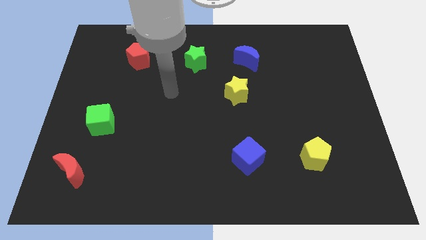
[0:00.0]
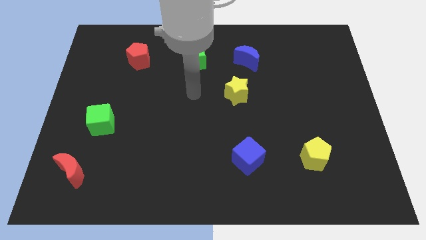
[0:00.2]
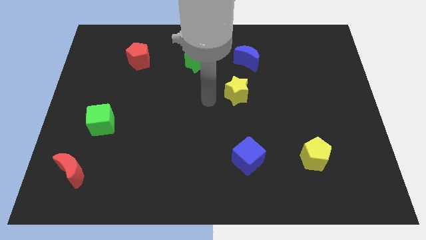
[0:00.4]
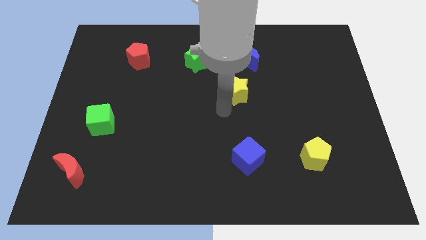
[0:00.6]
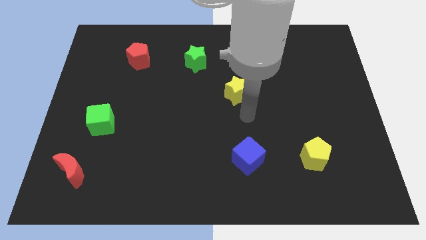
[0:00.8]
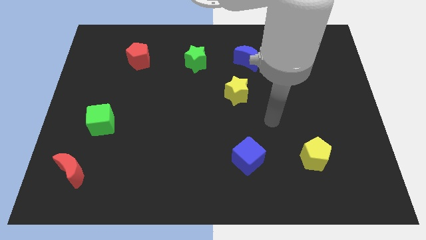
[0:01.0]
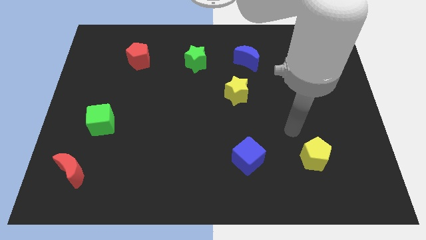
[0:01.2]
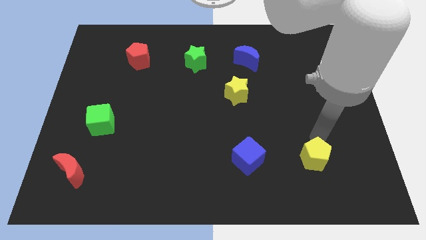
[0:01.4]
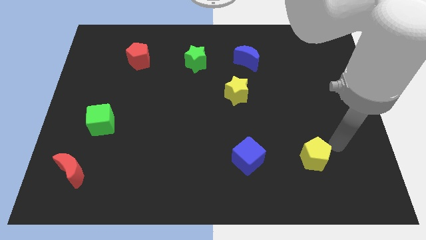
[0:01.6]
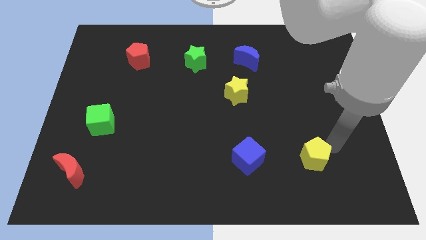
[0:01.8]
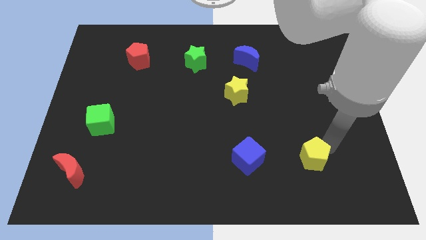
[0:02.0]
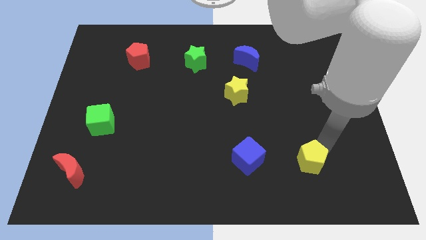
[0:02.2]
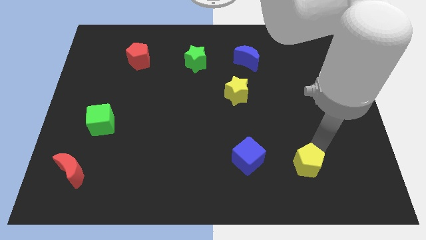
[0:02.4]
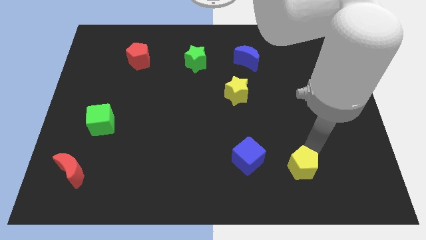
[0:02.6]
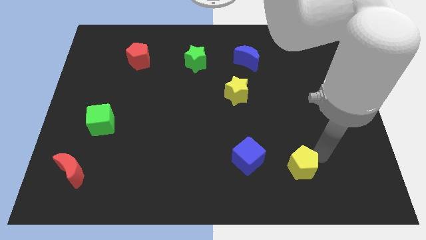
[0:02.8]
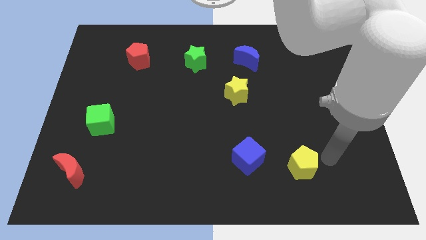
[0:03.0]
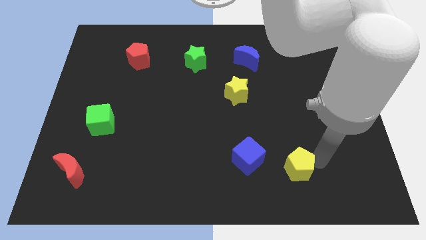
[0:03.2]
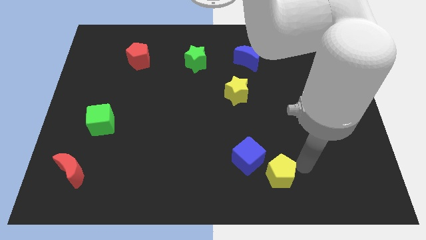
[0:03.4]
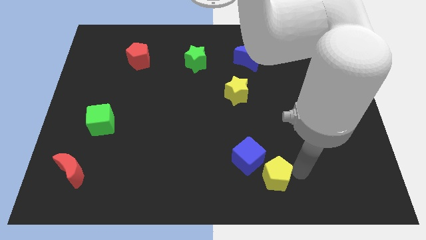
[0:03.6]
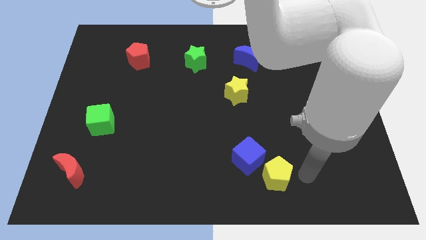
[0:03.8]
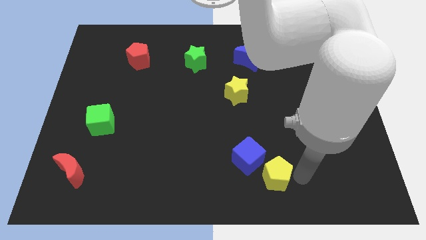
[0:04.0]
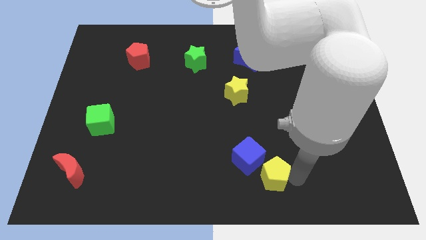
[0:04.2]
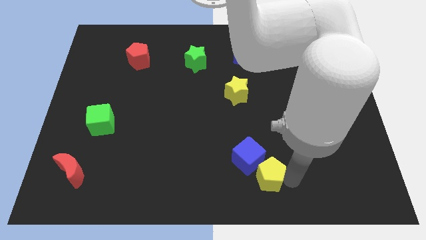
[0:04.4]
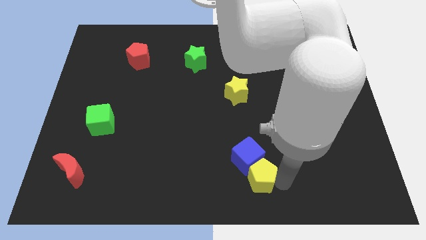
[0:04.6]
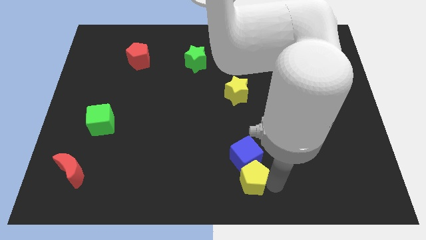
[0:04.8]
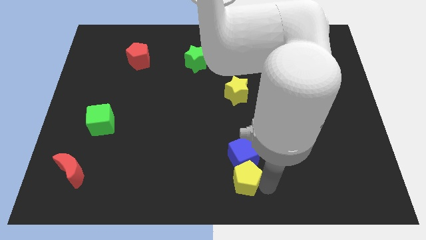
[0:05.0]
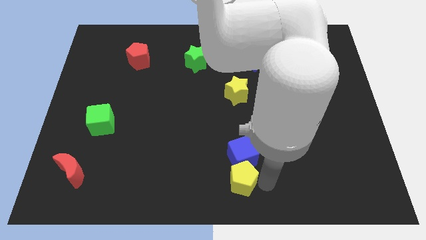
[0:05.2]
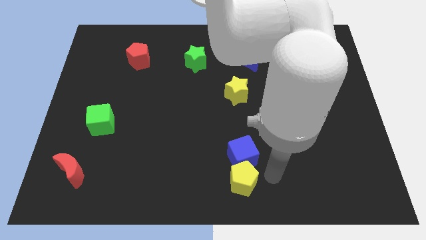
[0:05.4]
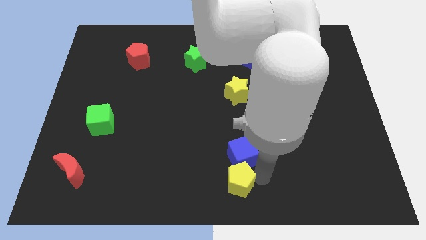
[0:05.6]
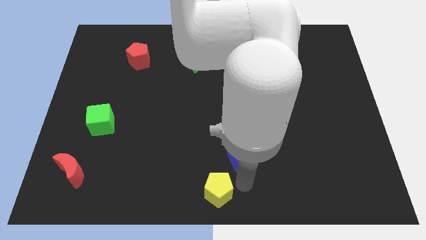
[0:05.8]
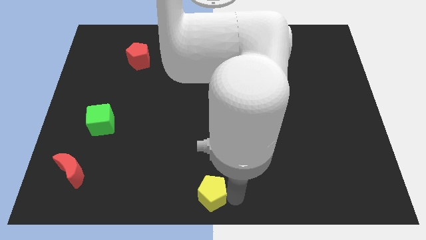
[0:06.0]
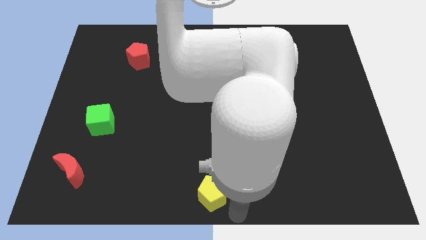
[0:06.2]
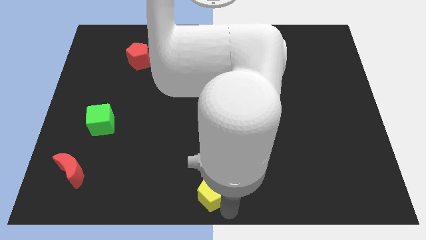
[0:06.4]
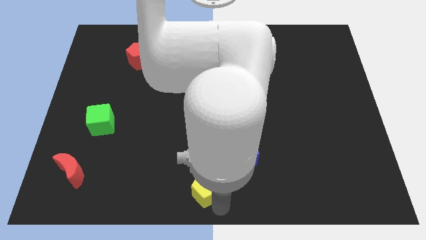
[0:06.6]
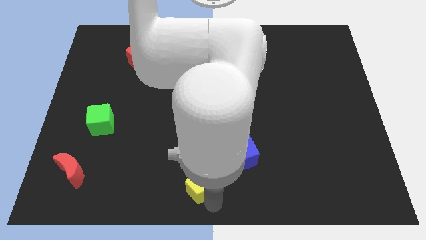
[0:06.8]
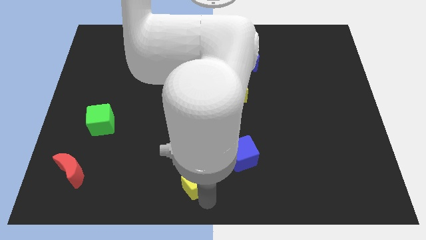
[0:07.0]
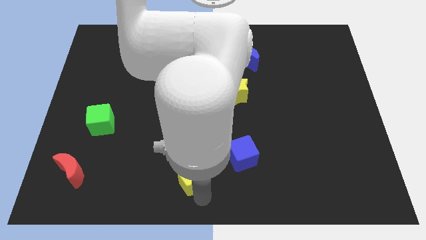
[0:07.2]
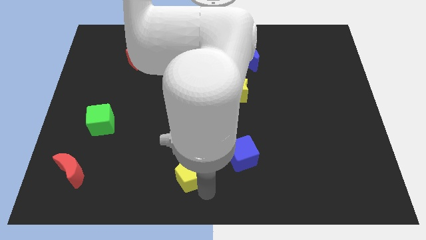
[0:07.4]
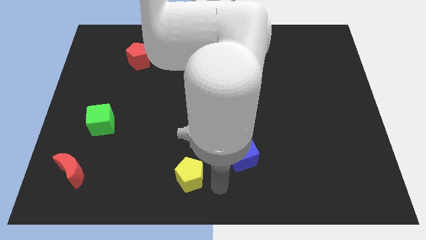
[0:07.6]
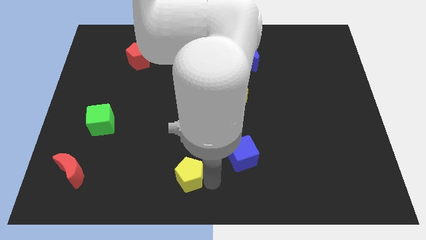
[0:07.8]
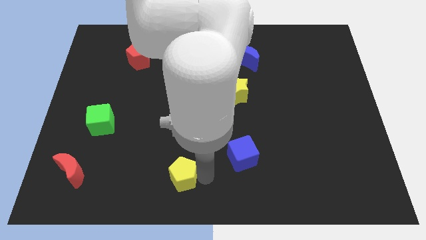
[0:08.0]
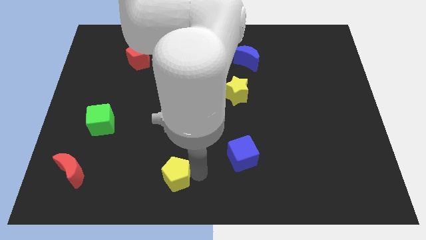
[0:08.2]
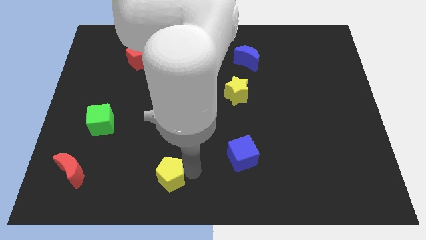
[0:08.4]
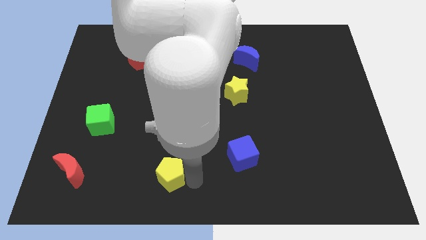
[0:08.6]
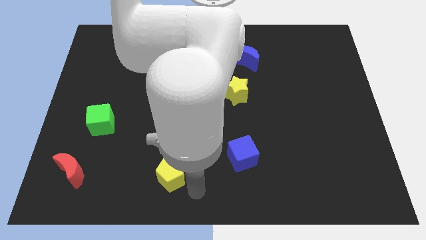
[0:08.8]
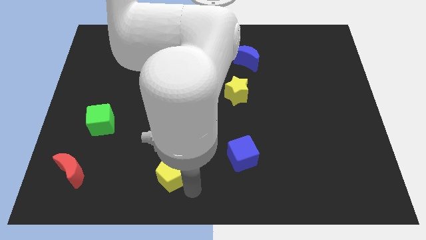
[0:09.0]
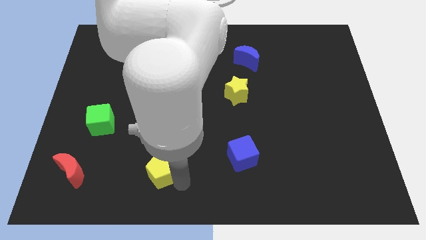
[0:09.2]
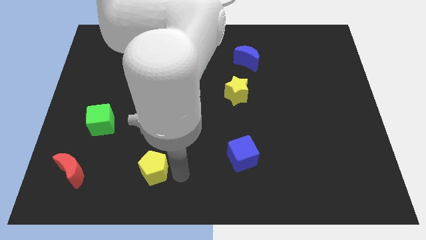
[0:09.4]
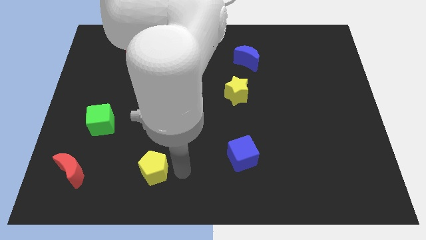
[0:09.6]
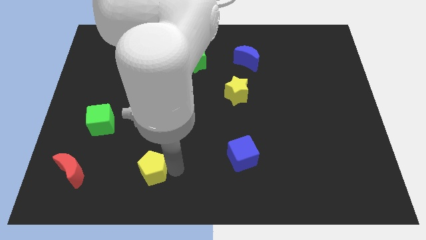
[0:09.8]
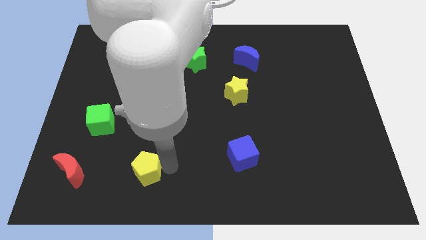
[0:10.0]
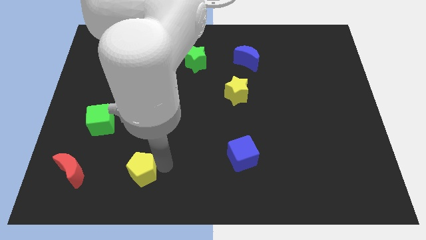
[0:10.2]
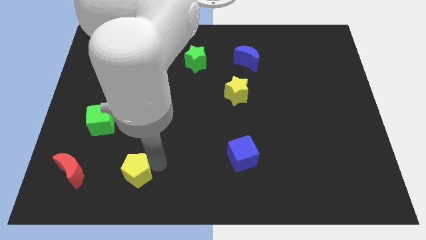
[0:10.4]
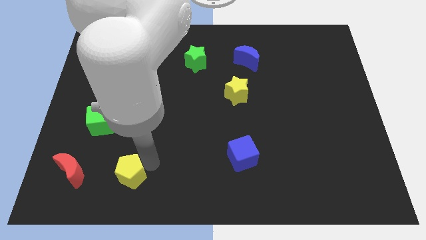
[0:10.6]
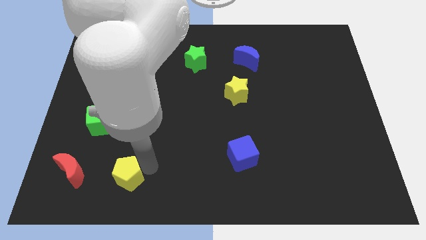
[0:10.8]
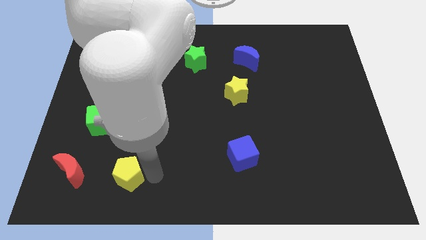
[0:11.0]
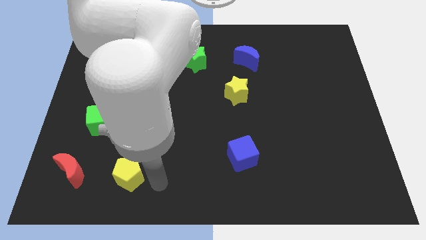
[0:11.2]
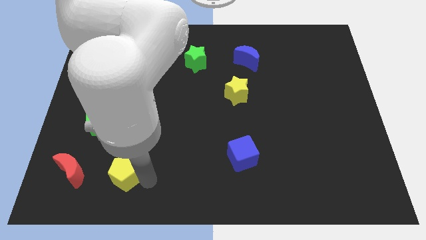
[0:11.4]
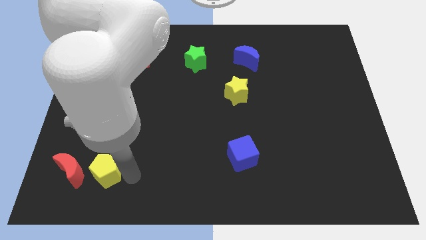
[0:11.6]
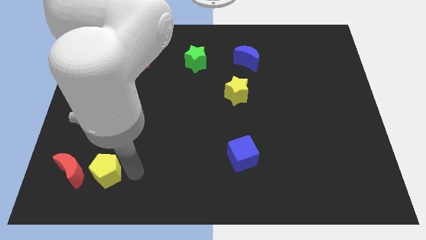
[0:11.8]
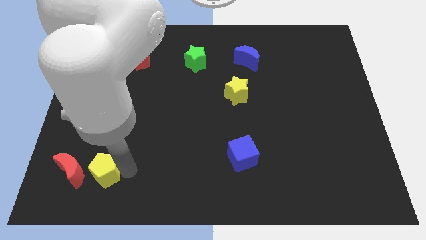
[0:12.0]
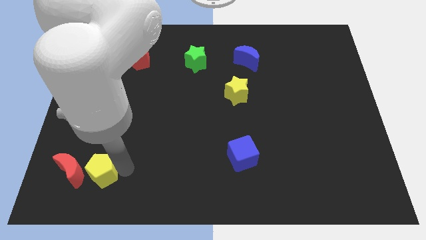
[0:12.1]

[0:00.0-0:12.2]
slide the yellow pentagon towards the red moon

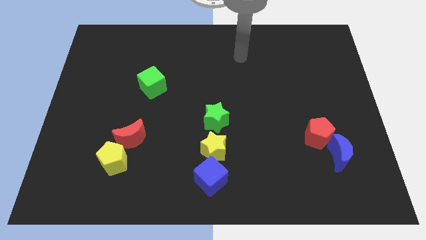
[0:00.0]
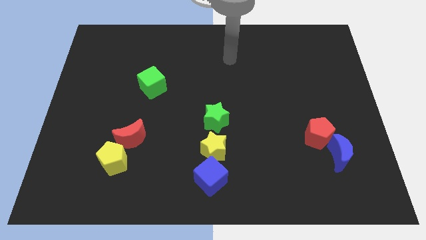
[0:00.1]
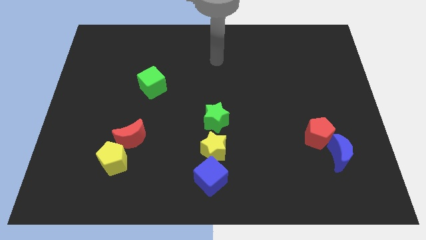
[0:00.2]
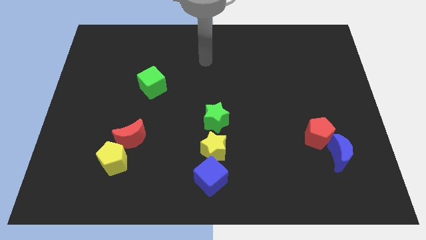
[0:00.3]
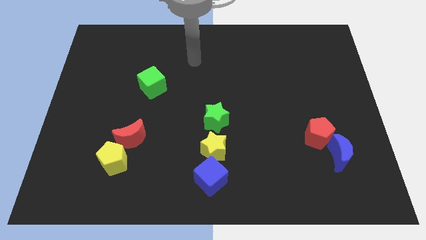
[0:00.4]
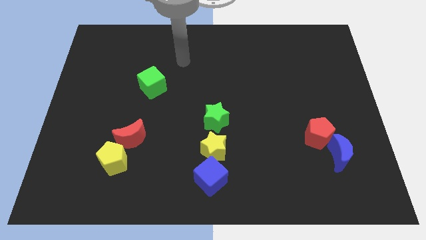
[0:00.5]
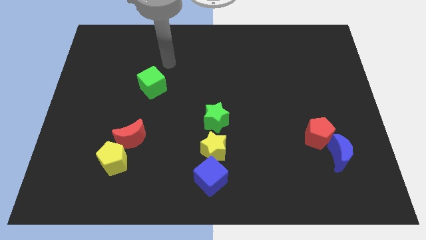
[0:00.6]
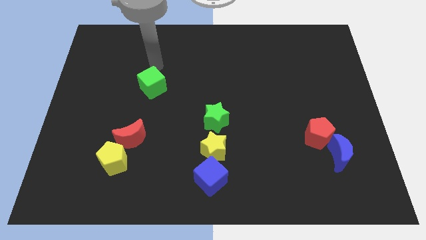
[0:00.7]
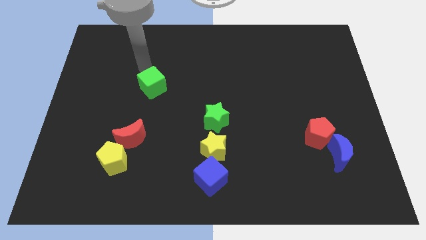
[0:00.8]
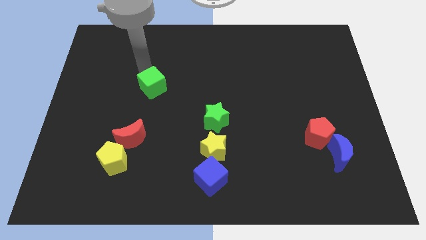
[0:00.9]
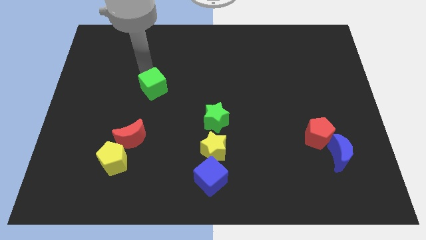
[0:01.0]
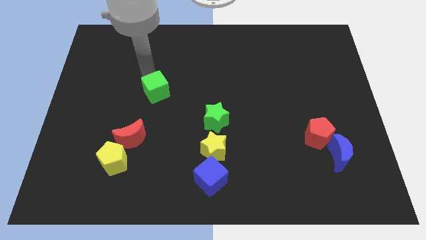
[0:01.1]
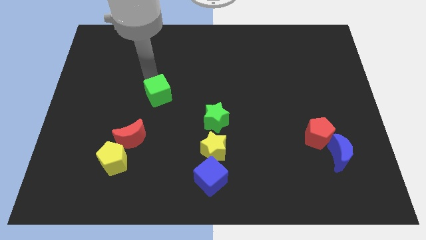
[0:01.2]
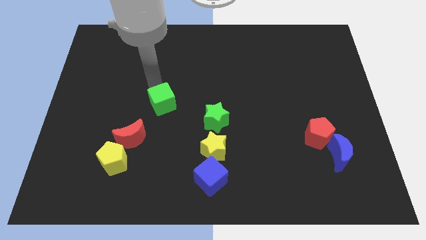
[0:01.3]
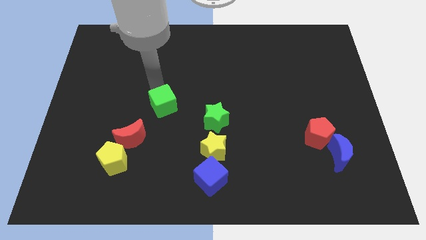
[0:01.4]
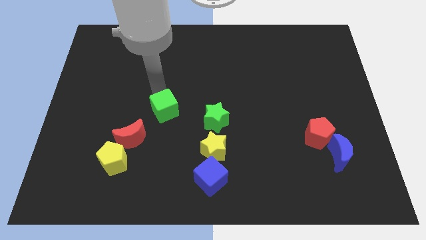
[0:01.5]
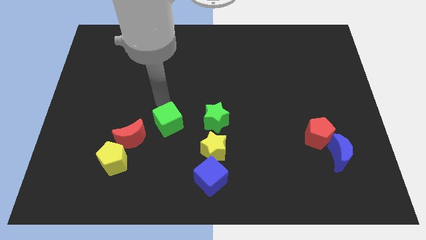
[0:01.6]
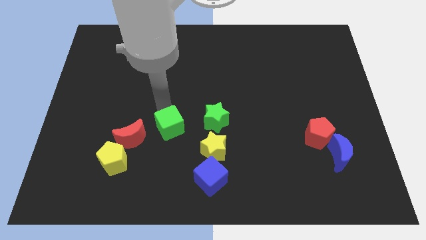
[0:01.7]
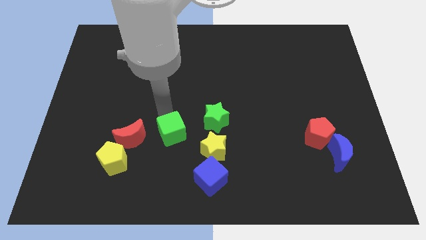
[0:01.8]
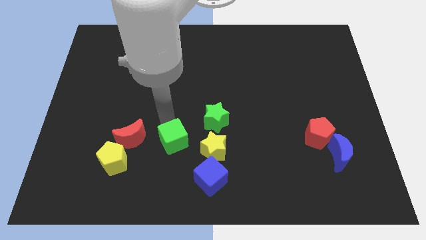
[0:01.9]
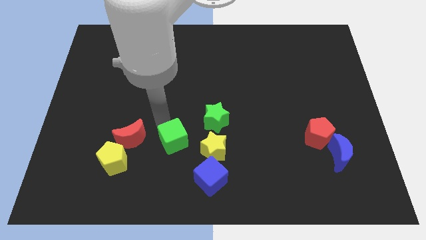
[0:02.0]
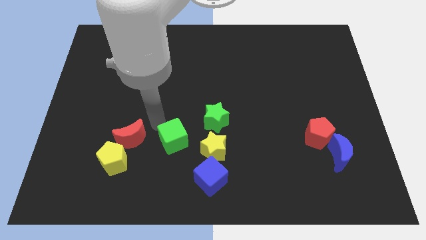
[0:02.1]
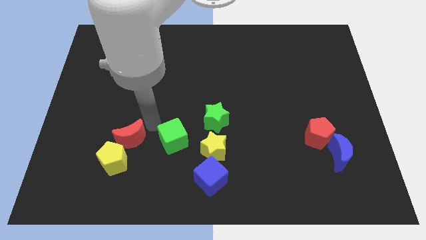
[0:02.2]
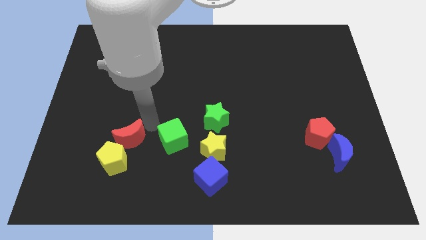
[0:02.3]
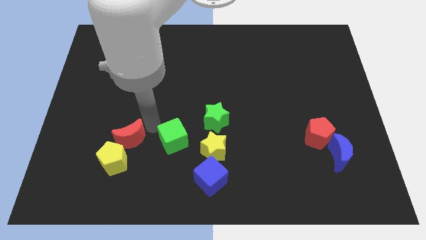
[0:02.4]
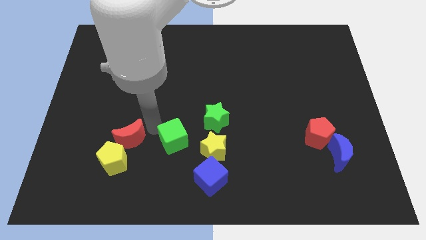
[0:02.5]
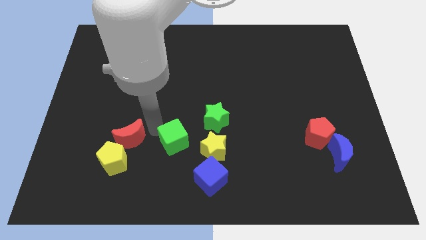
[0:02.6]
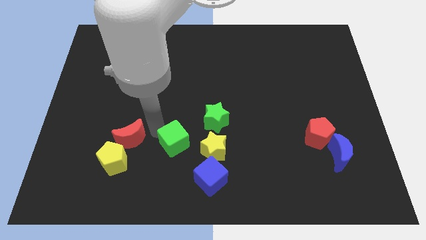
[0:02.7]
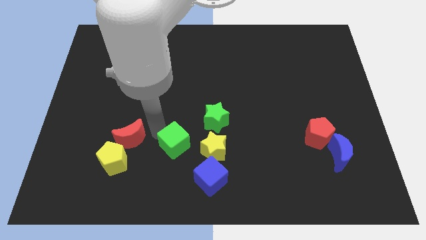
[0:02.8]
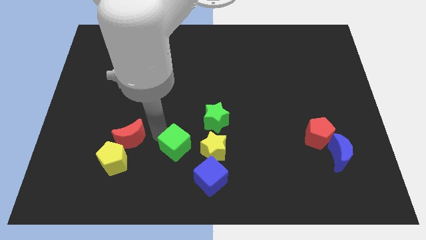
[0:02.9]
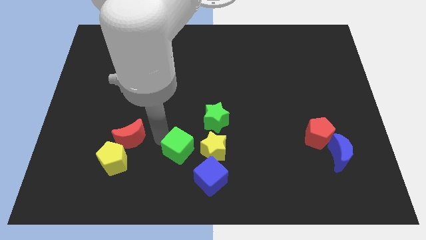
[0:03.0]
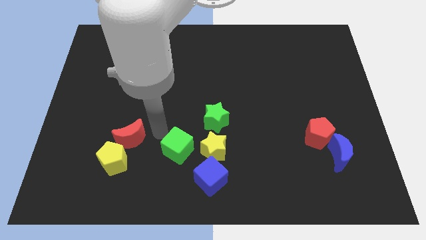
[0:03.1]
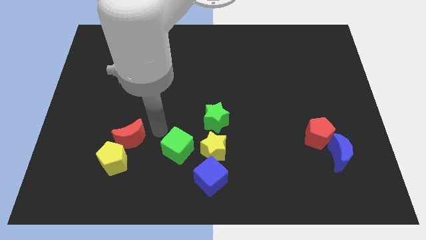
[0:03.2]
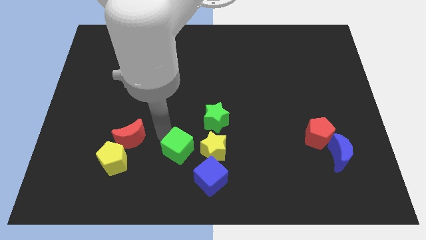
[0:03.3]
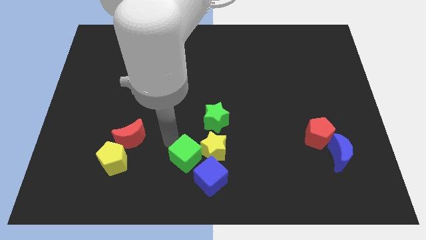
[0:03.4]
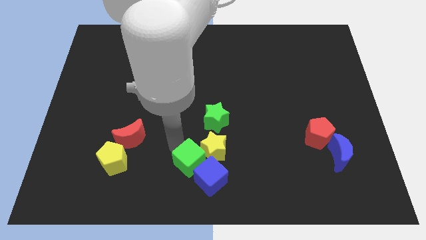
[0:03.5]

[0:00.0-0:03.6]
slide the green cube next to the blue cube
